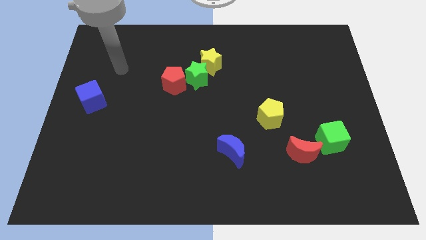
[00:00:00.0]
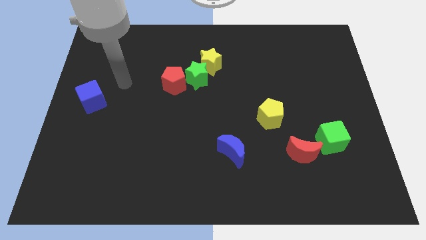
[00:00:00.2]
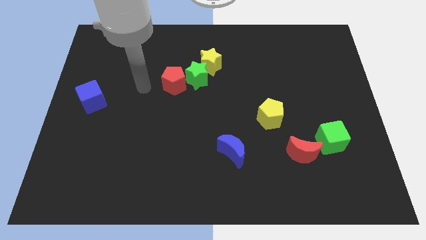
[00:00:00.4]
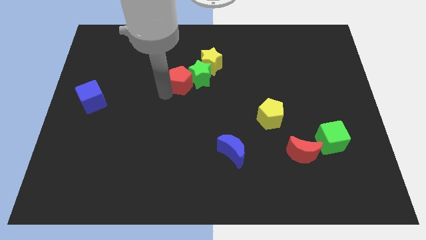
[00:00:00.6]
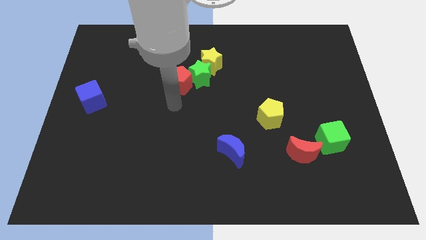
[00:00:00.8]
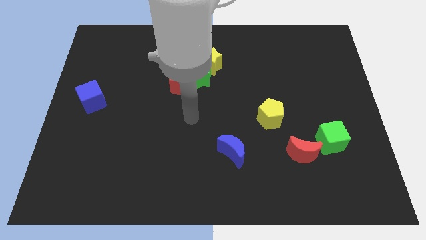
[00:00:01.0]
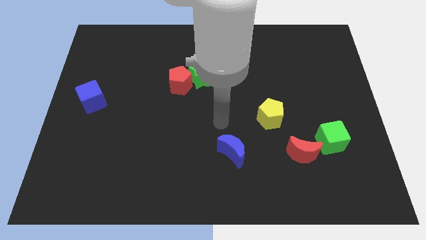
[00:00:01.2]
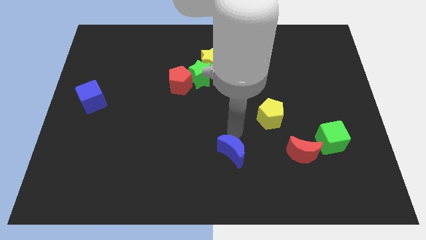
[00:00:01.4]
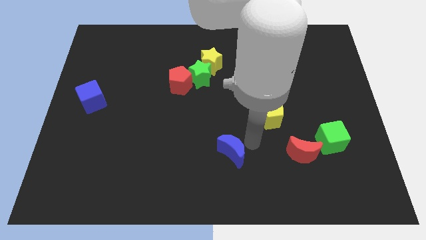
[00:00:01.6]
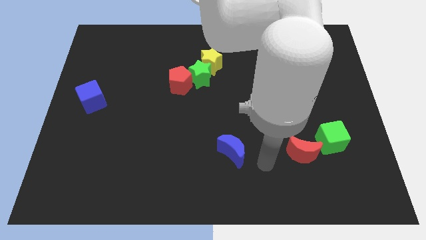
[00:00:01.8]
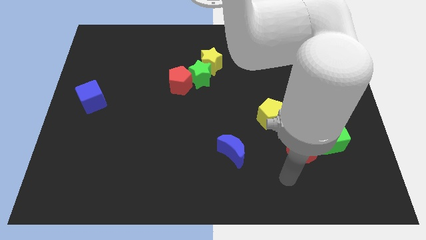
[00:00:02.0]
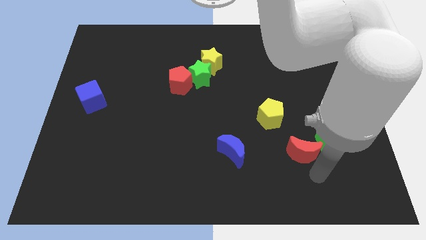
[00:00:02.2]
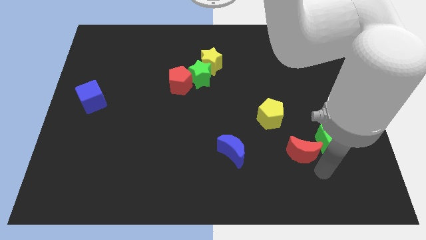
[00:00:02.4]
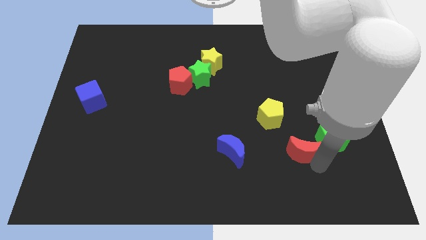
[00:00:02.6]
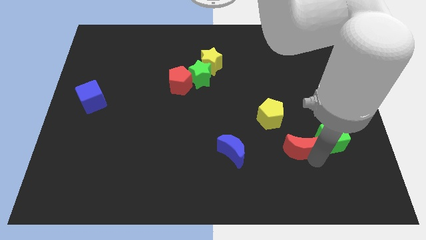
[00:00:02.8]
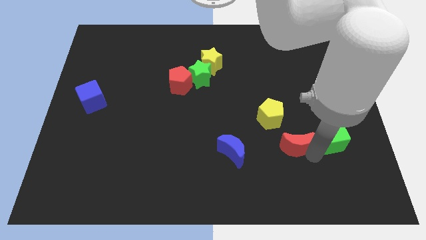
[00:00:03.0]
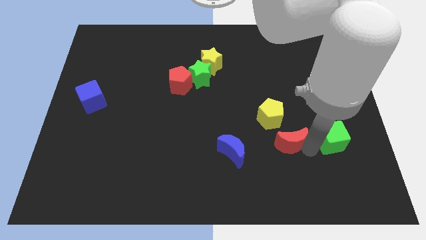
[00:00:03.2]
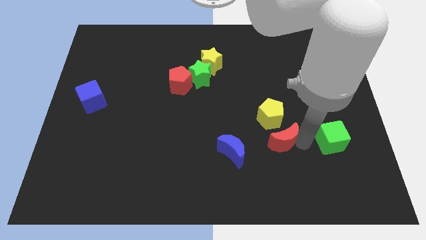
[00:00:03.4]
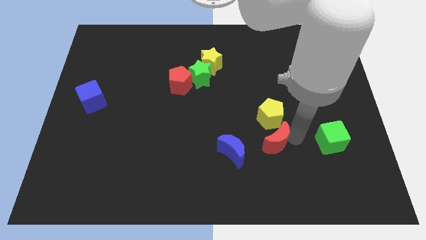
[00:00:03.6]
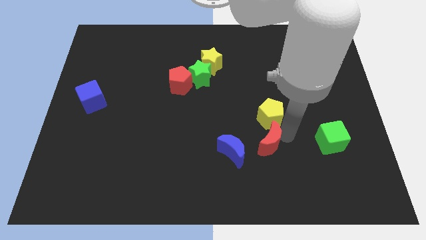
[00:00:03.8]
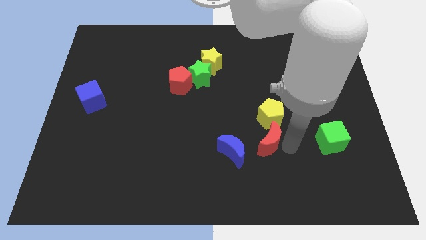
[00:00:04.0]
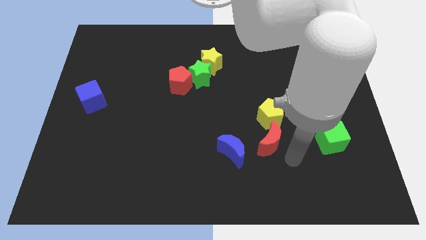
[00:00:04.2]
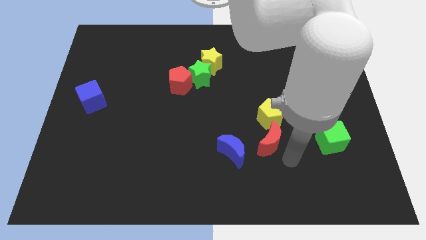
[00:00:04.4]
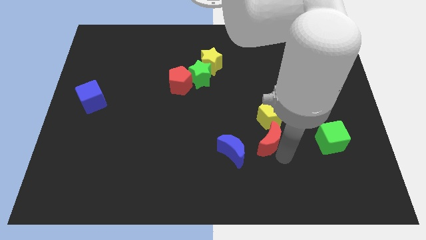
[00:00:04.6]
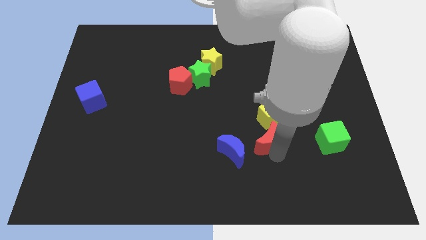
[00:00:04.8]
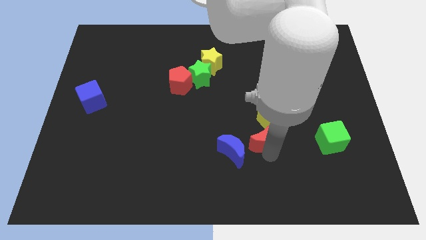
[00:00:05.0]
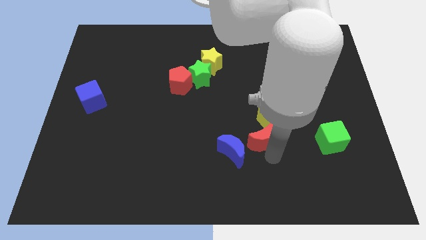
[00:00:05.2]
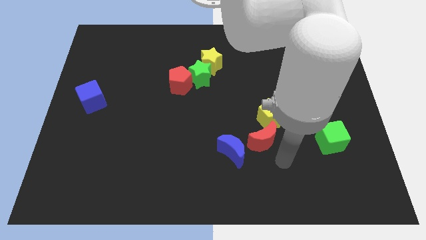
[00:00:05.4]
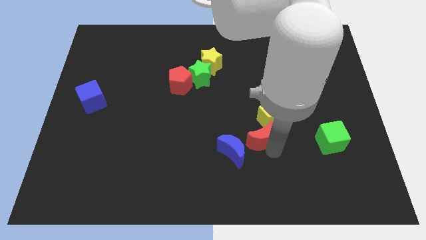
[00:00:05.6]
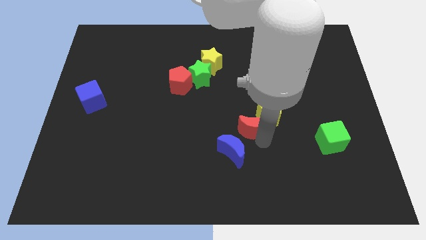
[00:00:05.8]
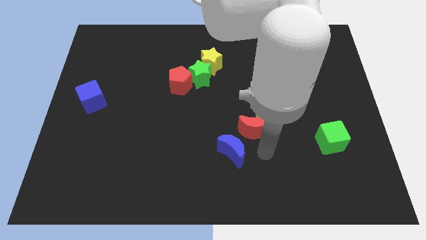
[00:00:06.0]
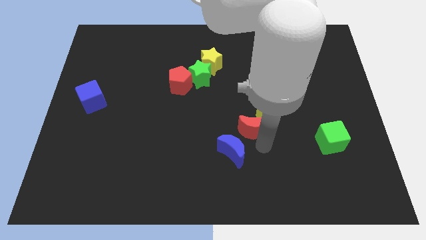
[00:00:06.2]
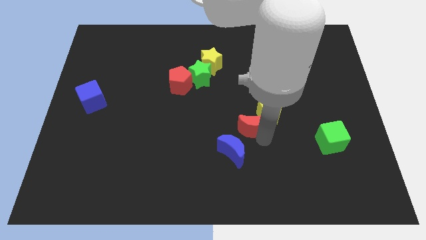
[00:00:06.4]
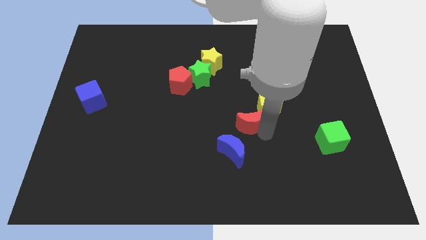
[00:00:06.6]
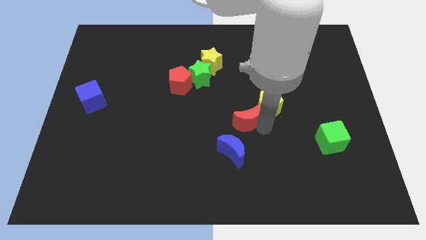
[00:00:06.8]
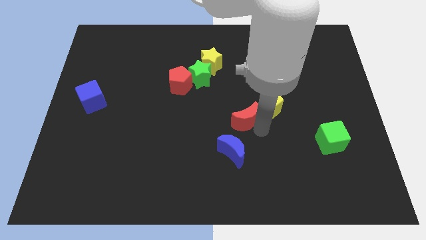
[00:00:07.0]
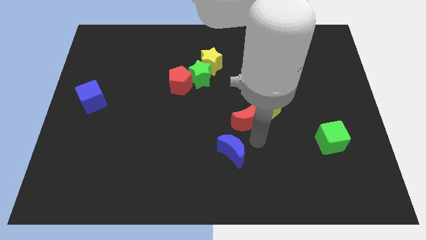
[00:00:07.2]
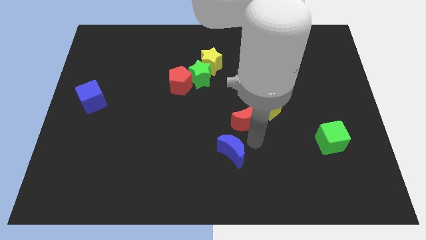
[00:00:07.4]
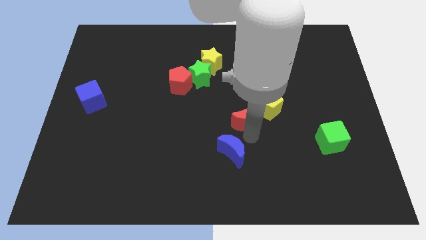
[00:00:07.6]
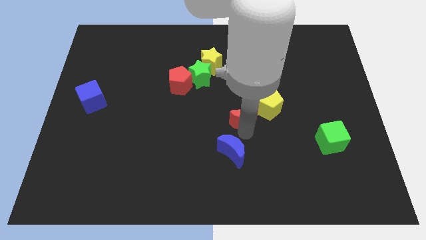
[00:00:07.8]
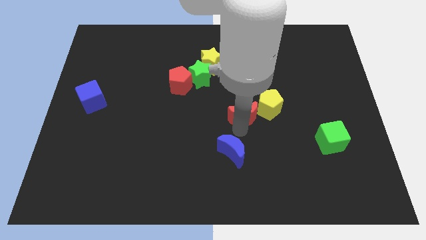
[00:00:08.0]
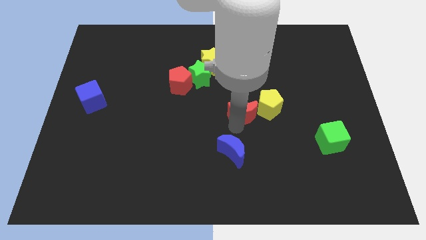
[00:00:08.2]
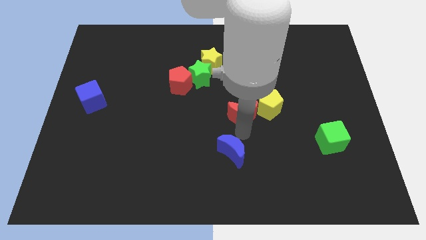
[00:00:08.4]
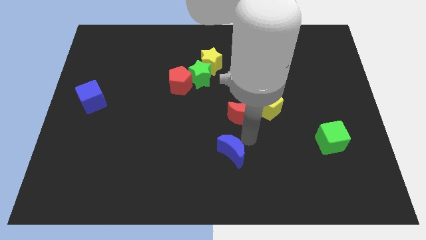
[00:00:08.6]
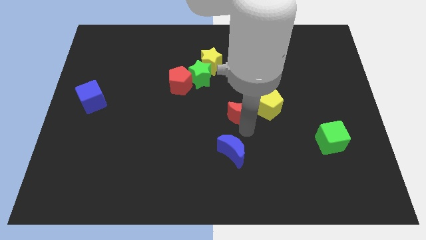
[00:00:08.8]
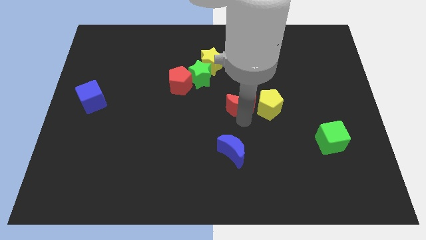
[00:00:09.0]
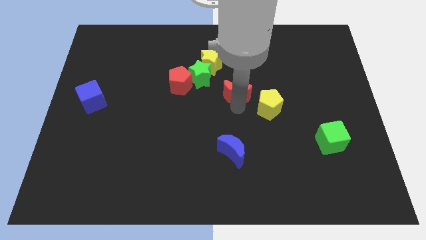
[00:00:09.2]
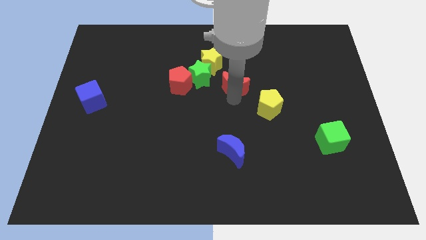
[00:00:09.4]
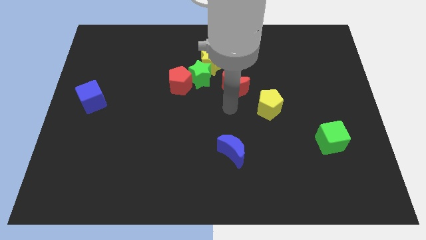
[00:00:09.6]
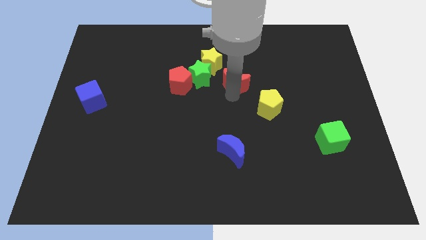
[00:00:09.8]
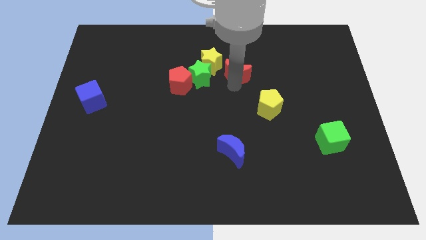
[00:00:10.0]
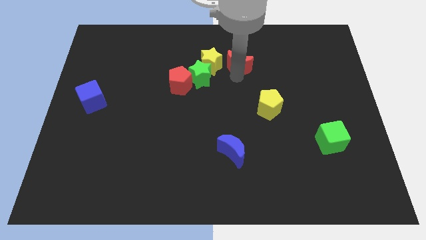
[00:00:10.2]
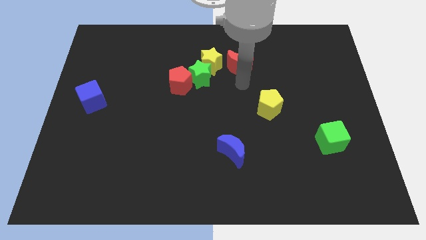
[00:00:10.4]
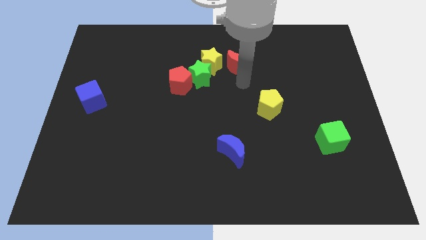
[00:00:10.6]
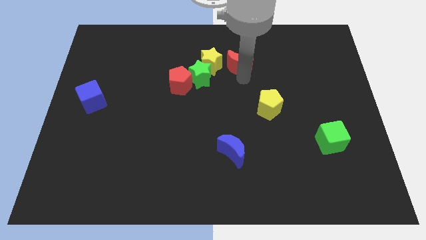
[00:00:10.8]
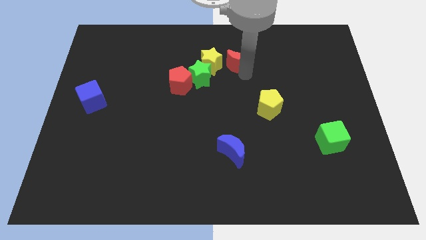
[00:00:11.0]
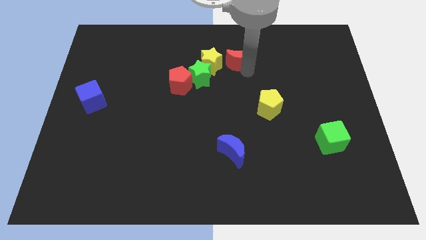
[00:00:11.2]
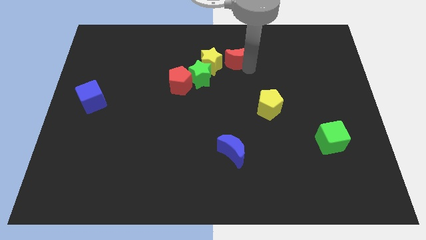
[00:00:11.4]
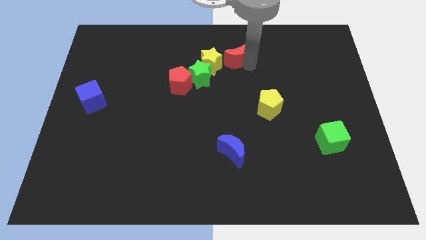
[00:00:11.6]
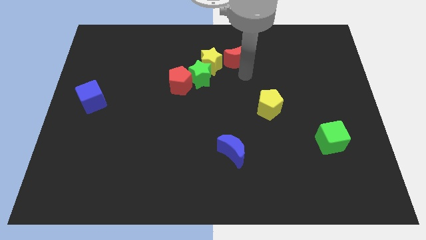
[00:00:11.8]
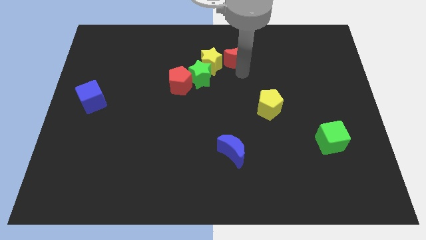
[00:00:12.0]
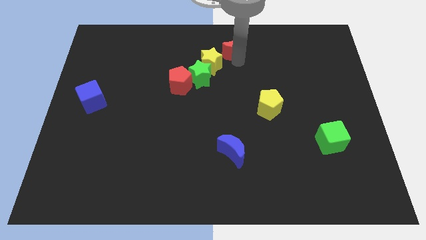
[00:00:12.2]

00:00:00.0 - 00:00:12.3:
push the red moon to the top
